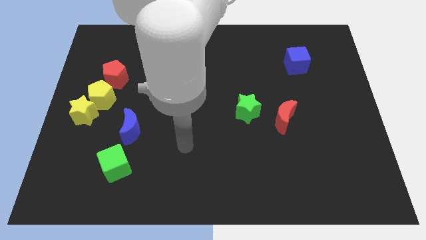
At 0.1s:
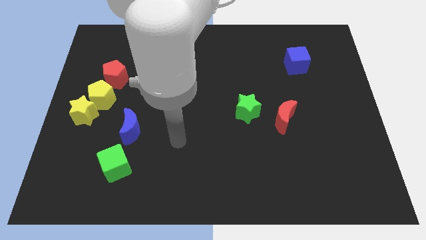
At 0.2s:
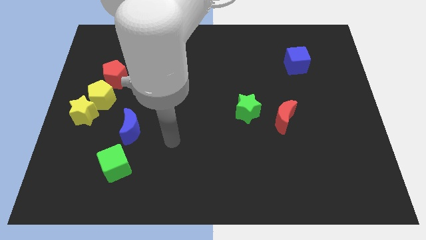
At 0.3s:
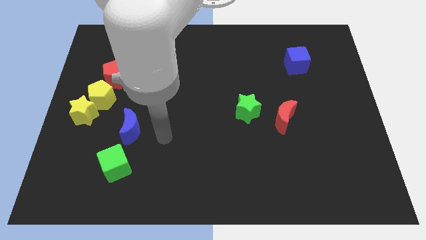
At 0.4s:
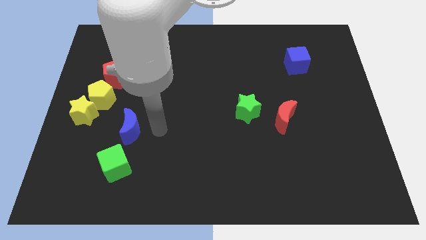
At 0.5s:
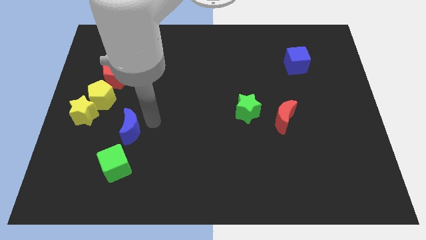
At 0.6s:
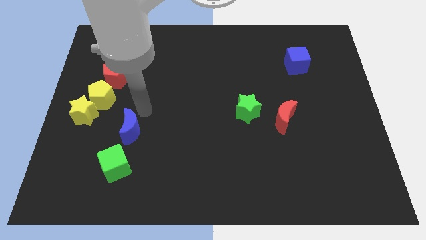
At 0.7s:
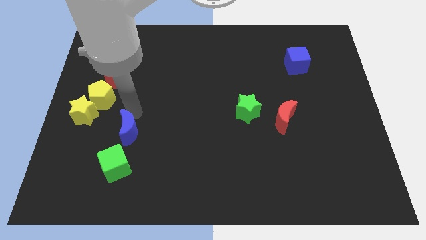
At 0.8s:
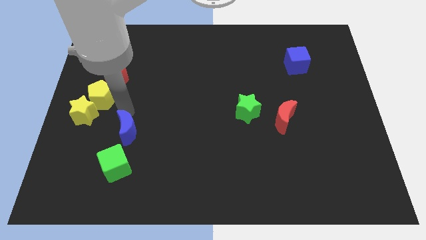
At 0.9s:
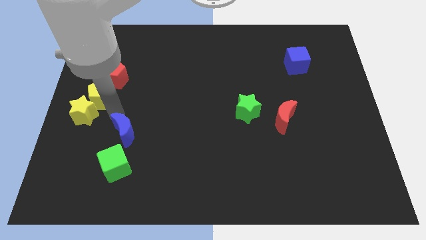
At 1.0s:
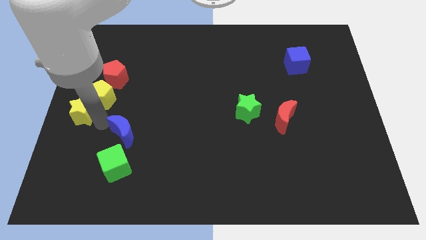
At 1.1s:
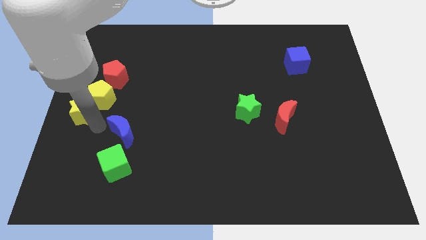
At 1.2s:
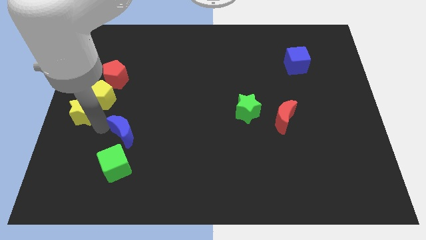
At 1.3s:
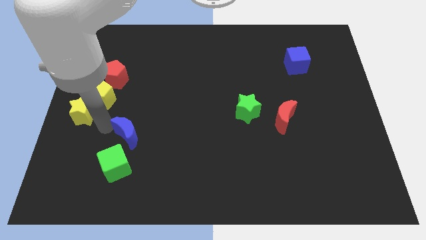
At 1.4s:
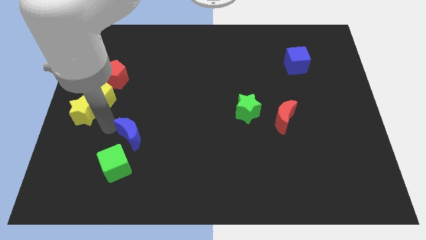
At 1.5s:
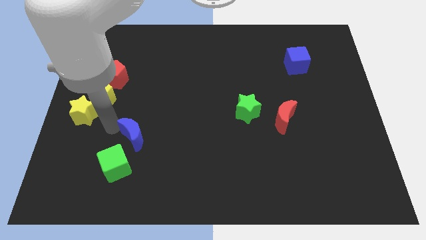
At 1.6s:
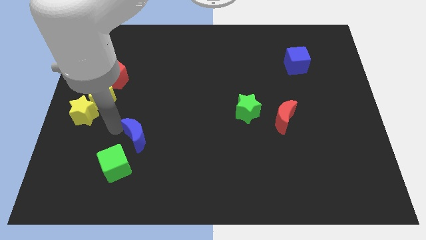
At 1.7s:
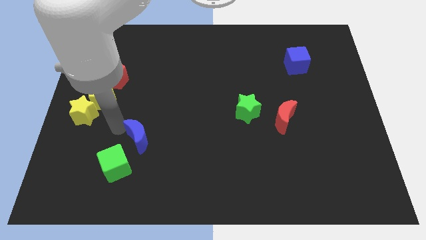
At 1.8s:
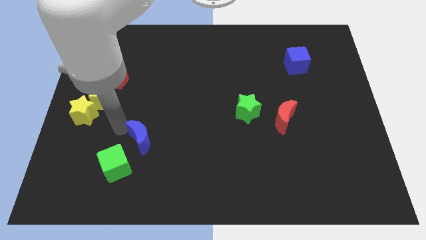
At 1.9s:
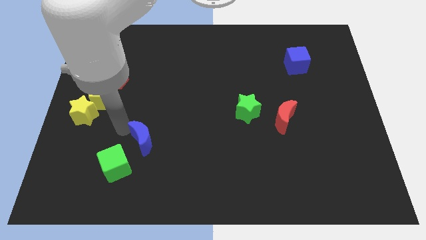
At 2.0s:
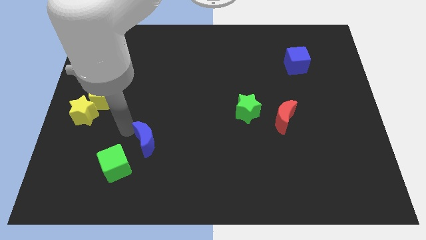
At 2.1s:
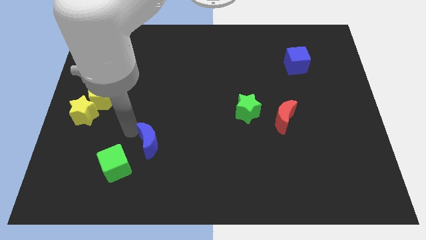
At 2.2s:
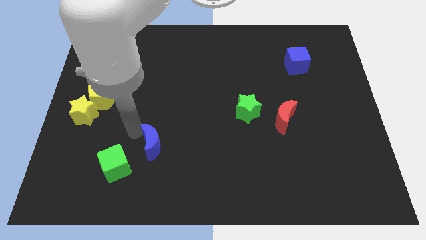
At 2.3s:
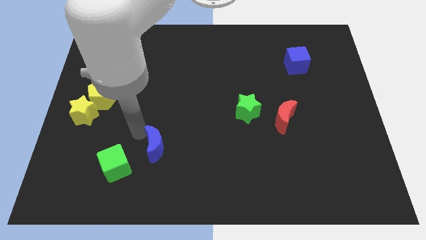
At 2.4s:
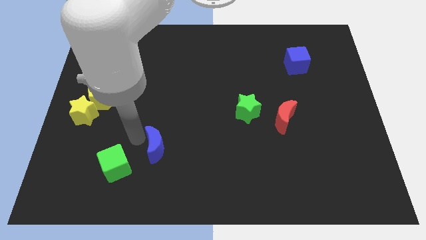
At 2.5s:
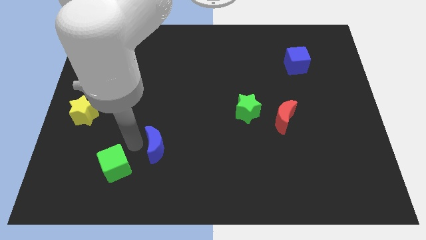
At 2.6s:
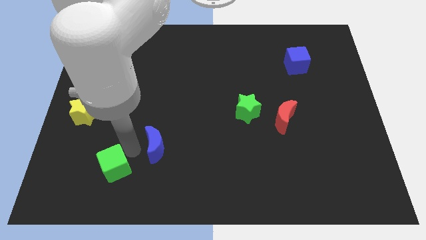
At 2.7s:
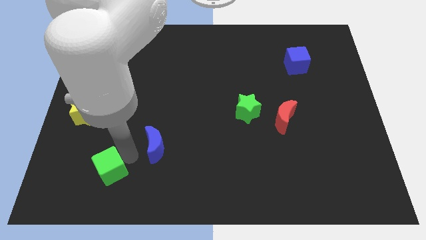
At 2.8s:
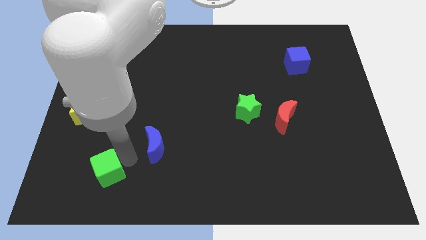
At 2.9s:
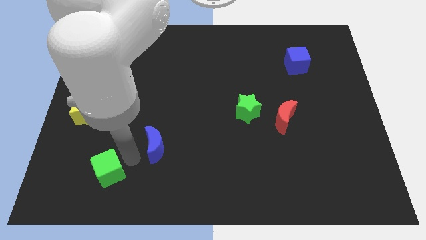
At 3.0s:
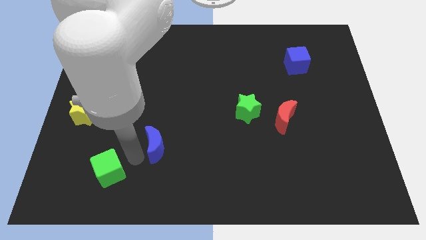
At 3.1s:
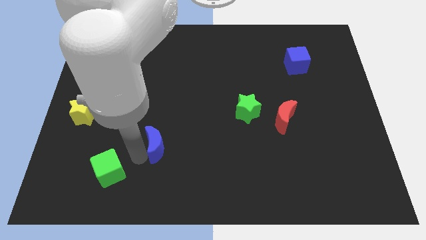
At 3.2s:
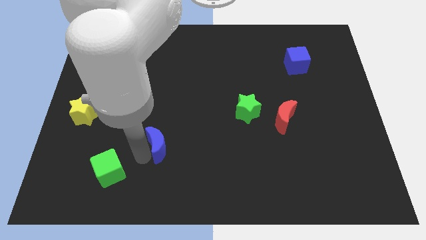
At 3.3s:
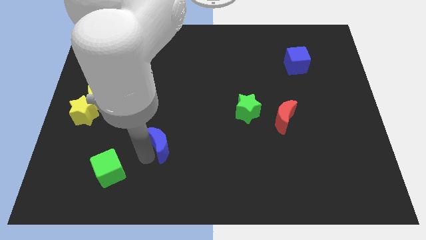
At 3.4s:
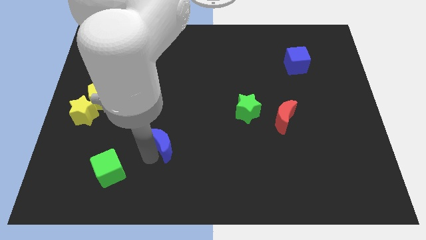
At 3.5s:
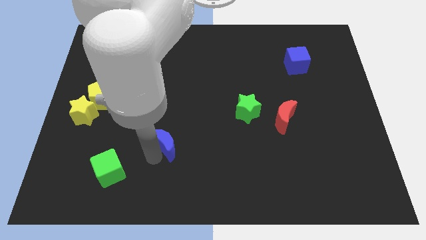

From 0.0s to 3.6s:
move the blue moon right a little bit

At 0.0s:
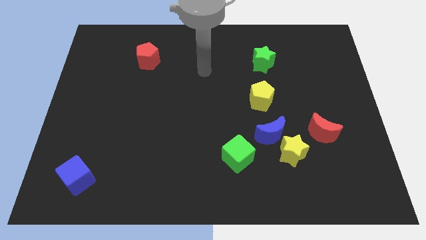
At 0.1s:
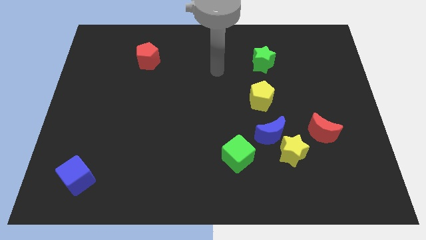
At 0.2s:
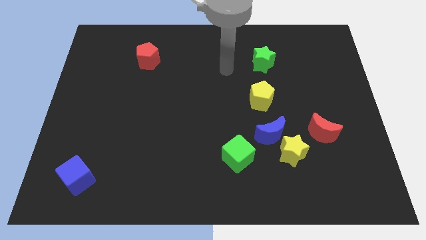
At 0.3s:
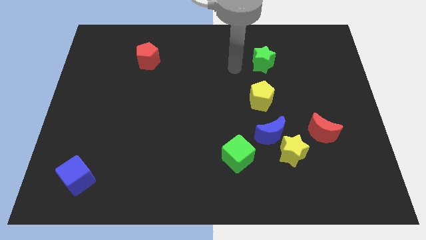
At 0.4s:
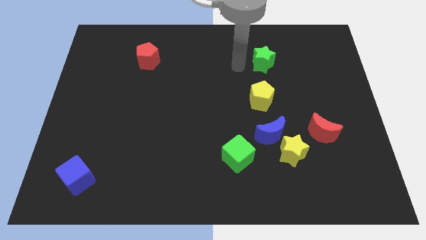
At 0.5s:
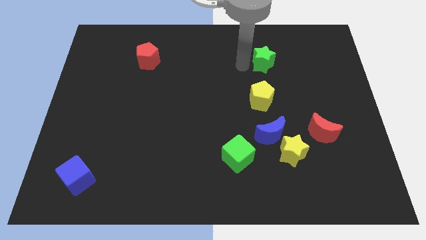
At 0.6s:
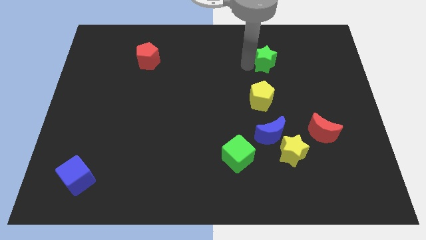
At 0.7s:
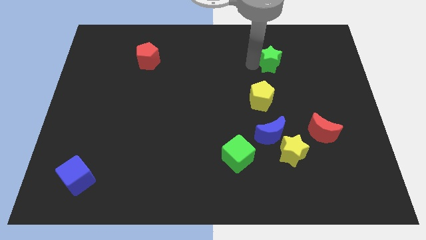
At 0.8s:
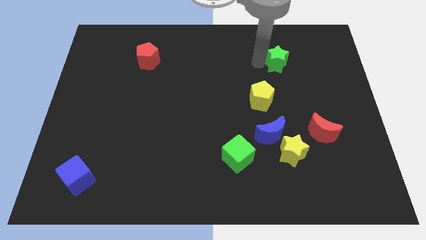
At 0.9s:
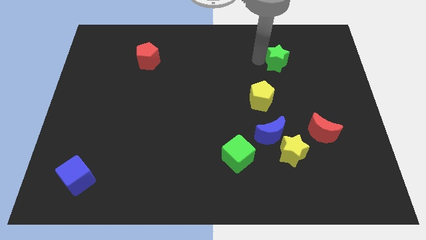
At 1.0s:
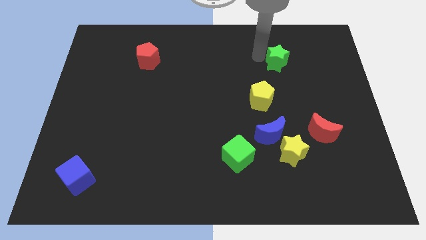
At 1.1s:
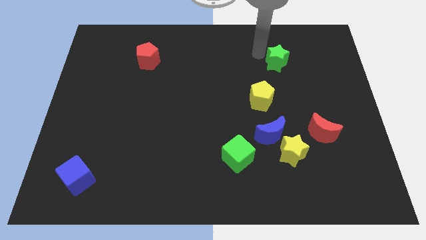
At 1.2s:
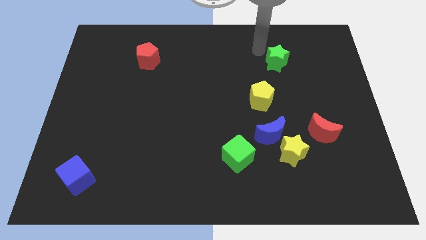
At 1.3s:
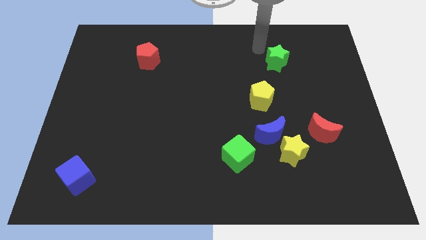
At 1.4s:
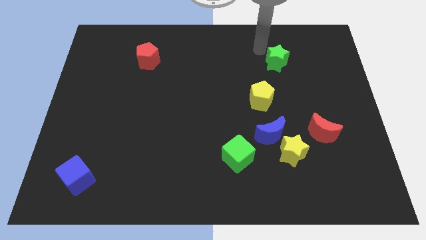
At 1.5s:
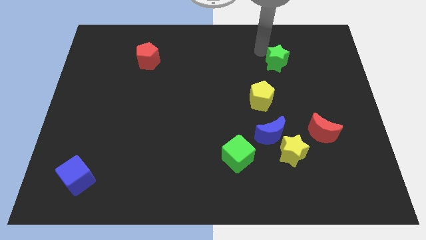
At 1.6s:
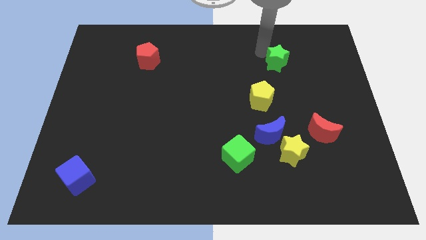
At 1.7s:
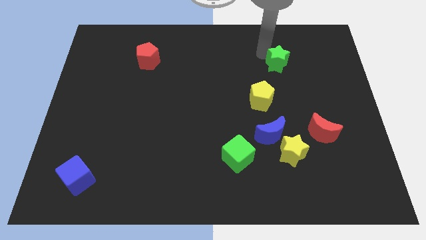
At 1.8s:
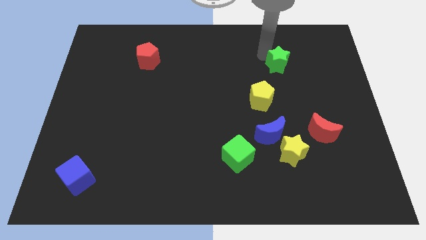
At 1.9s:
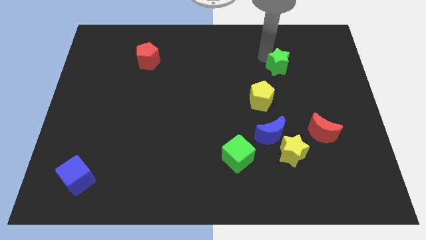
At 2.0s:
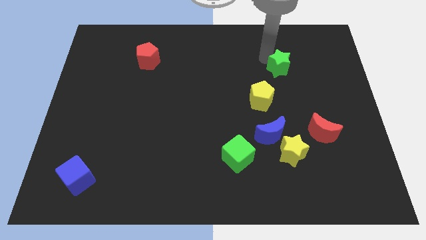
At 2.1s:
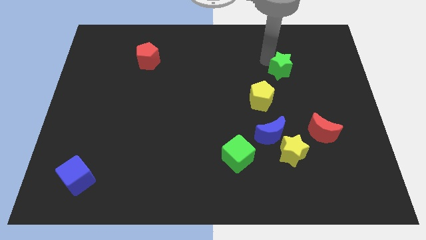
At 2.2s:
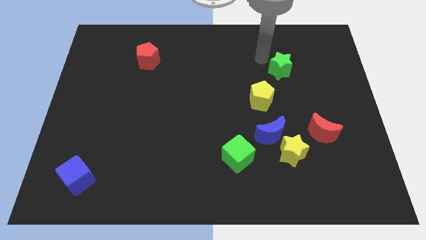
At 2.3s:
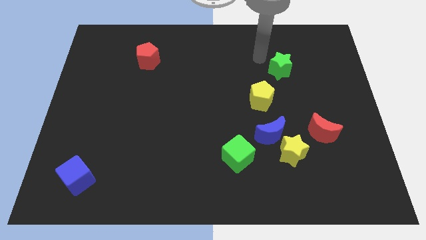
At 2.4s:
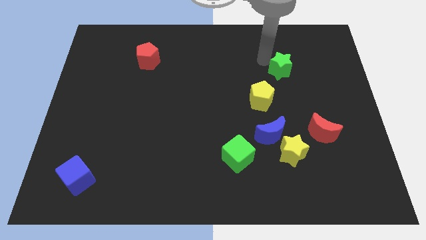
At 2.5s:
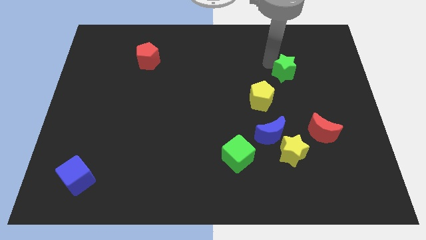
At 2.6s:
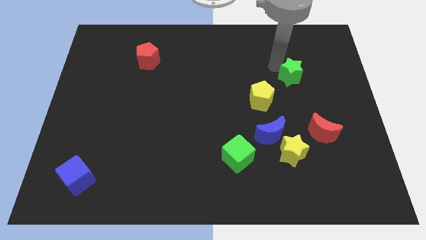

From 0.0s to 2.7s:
move the green star diagonally downwards and right a little bit

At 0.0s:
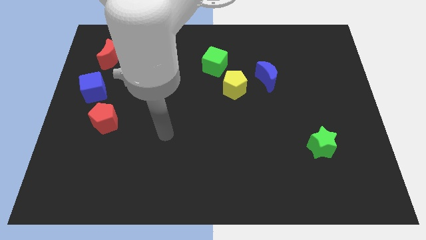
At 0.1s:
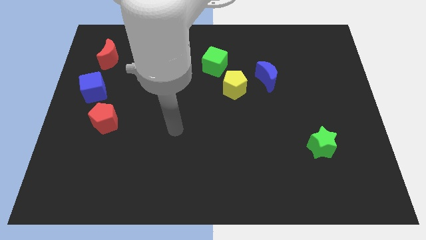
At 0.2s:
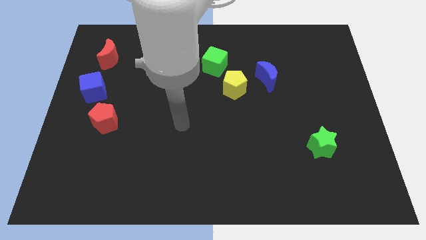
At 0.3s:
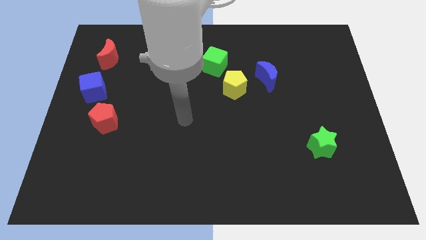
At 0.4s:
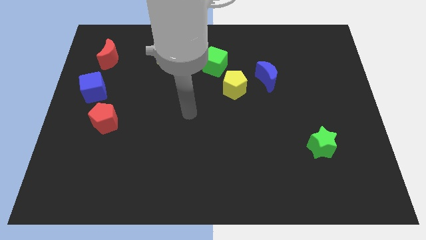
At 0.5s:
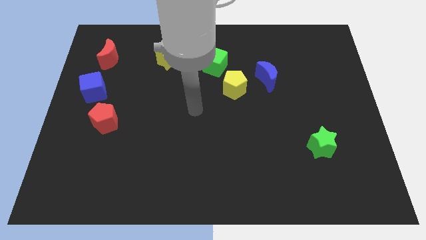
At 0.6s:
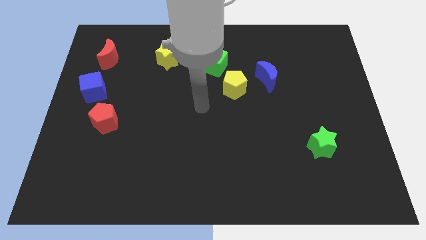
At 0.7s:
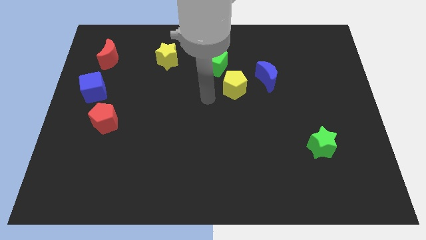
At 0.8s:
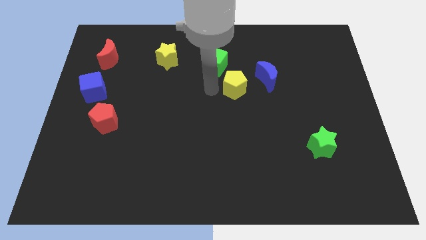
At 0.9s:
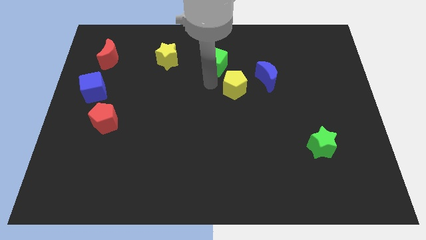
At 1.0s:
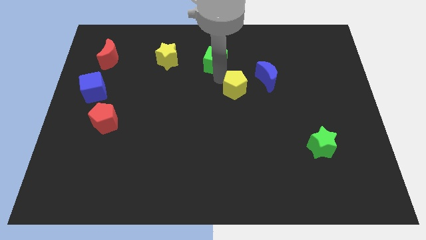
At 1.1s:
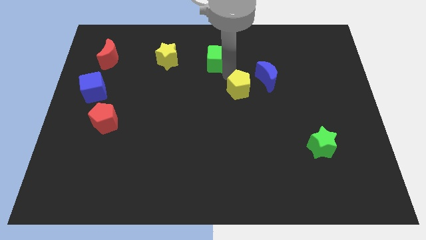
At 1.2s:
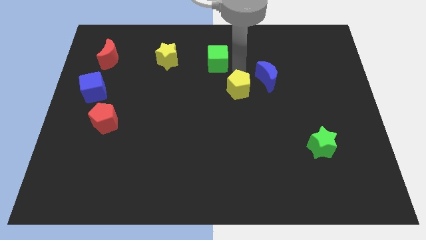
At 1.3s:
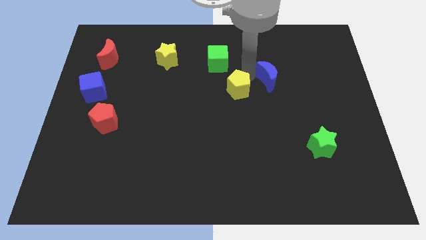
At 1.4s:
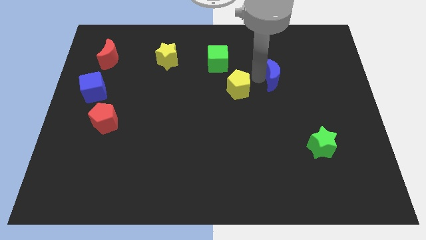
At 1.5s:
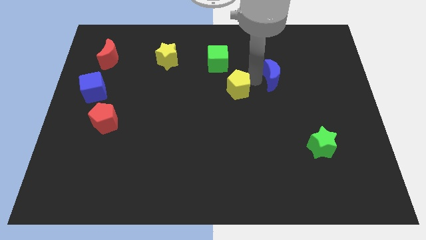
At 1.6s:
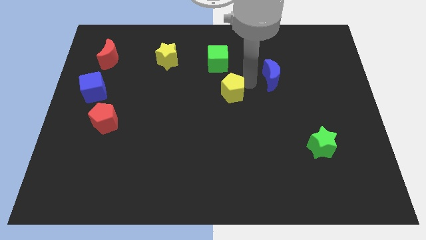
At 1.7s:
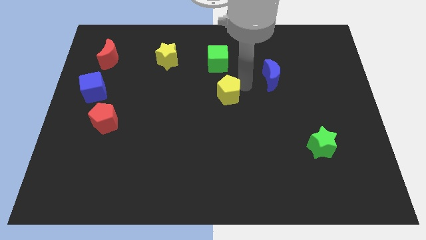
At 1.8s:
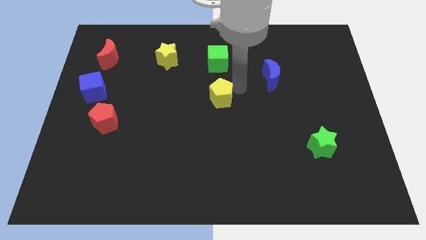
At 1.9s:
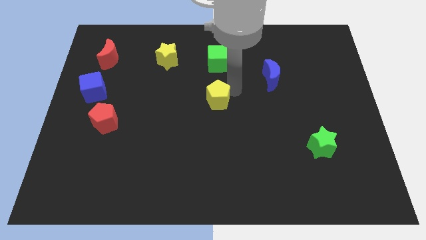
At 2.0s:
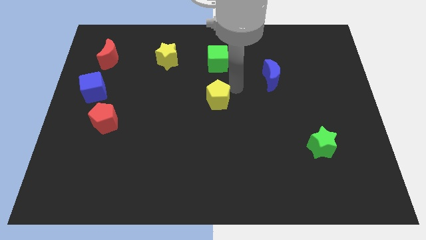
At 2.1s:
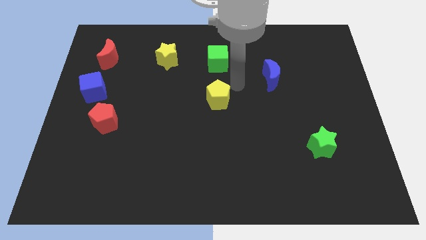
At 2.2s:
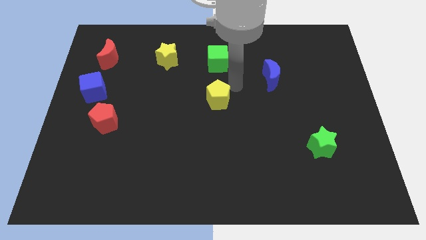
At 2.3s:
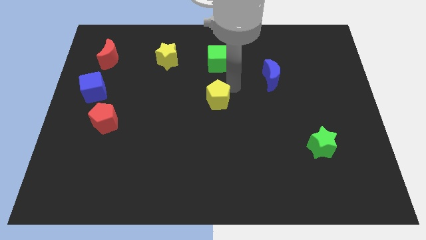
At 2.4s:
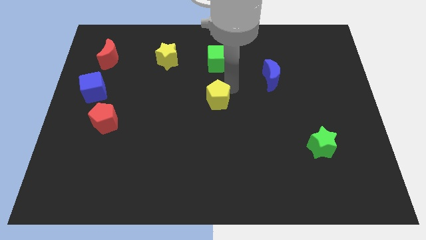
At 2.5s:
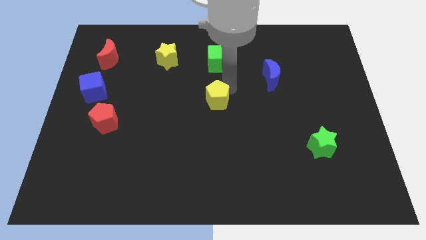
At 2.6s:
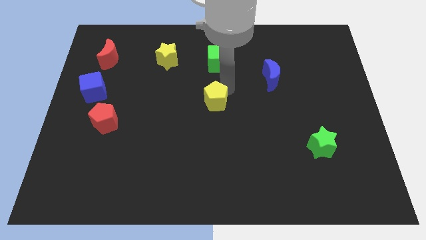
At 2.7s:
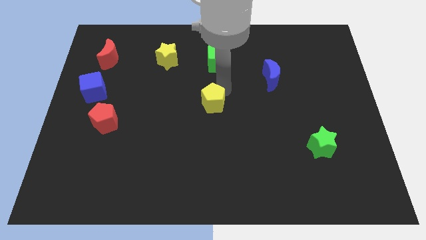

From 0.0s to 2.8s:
push the yellow pentagon somewhat down and left diagonally
